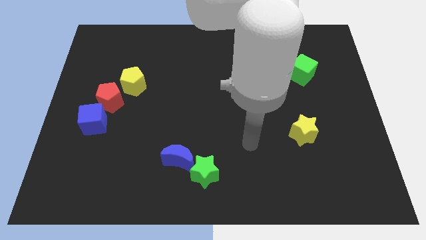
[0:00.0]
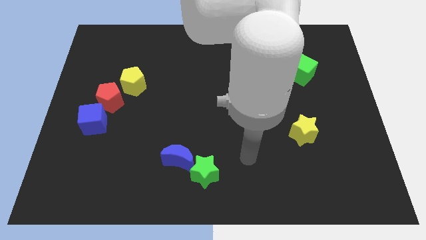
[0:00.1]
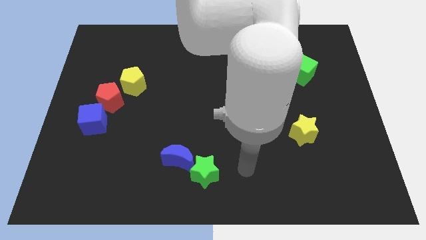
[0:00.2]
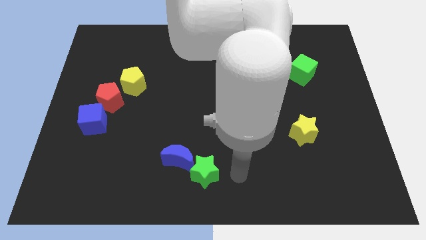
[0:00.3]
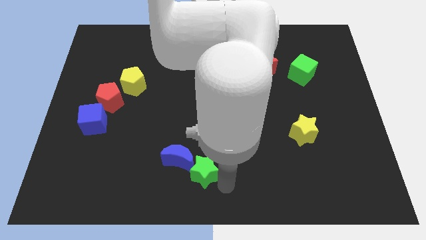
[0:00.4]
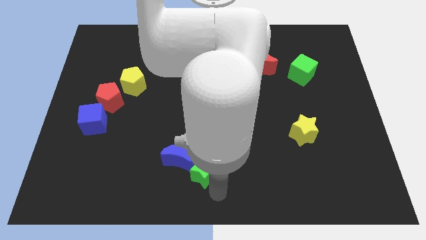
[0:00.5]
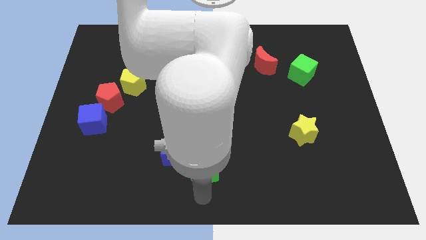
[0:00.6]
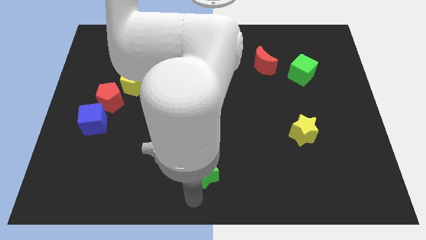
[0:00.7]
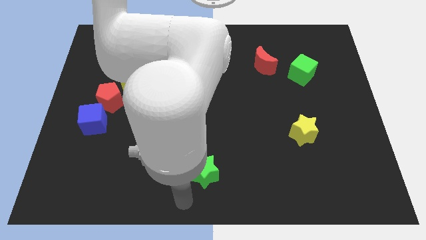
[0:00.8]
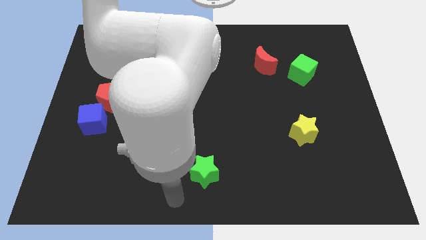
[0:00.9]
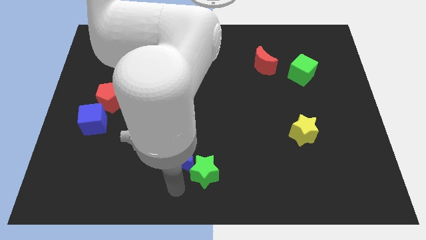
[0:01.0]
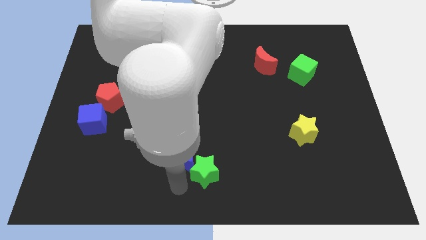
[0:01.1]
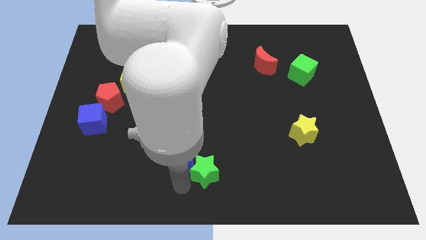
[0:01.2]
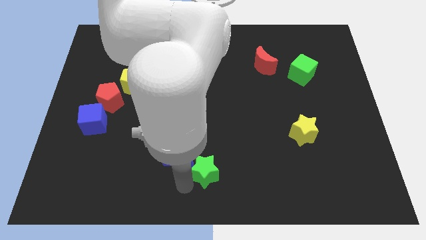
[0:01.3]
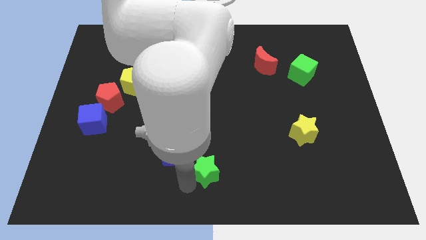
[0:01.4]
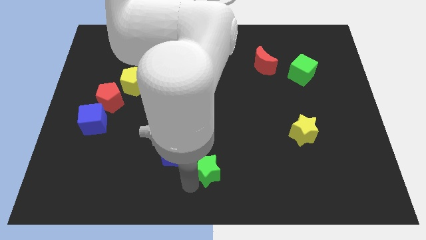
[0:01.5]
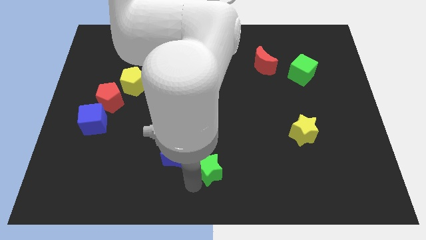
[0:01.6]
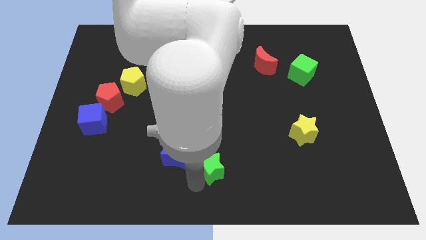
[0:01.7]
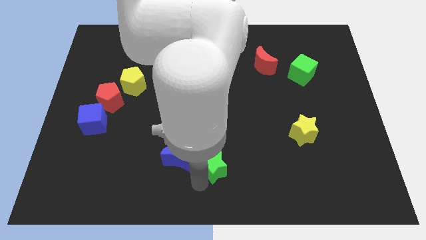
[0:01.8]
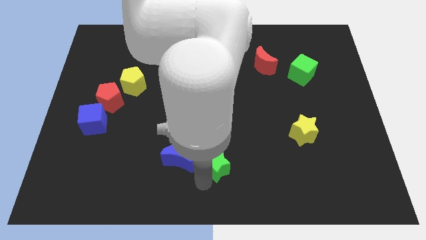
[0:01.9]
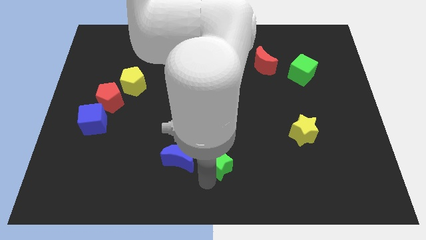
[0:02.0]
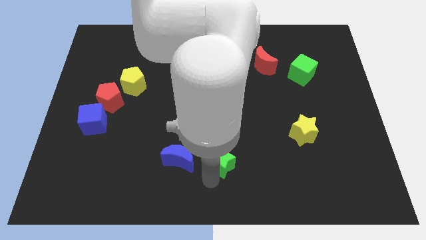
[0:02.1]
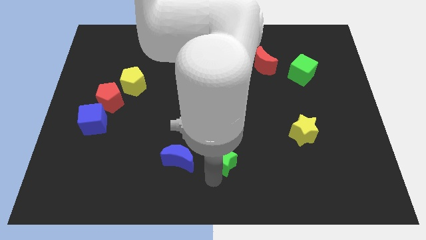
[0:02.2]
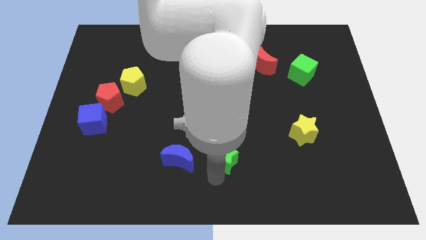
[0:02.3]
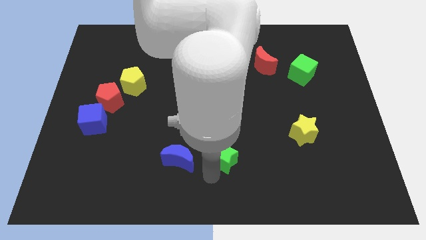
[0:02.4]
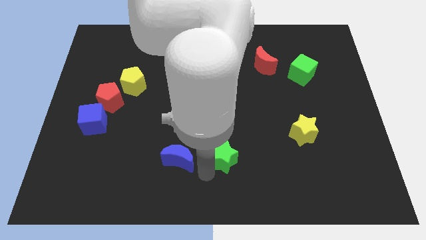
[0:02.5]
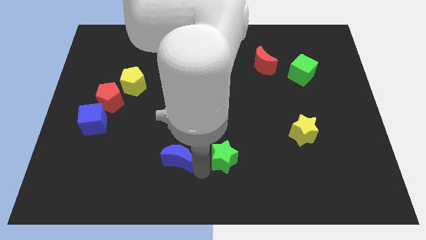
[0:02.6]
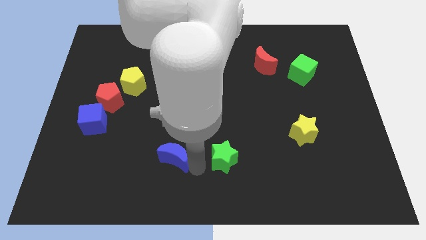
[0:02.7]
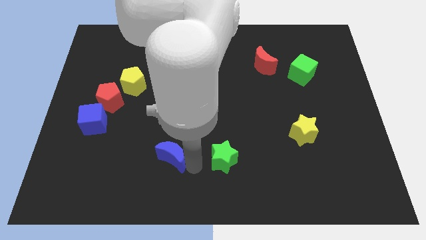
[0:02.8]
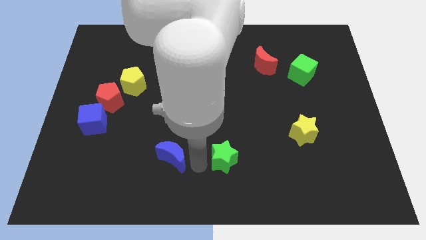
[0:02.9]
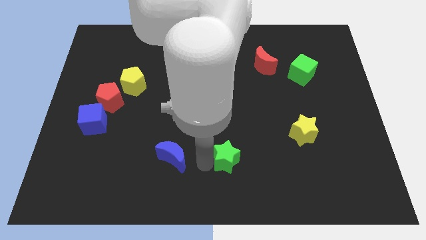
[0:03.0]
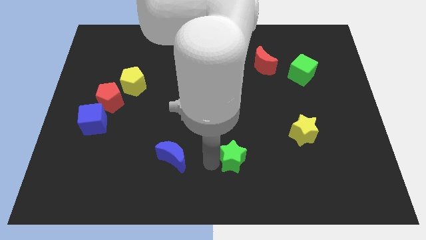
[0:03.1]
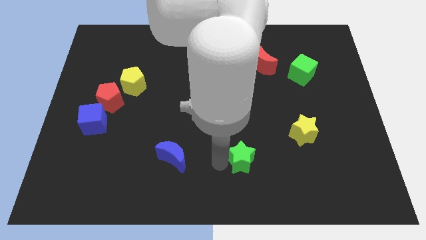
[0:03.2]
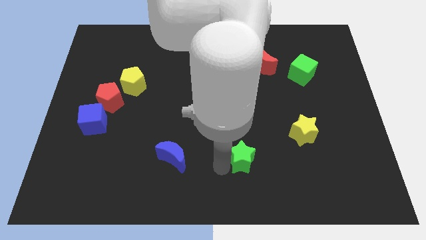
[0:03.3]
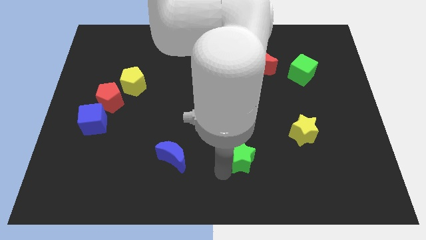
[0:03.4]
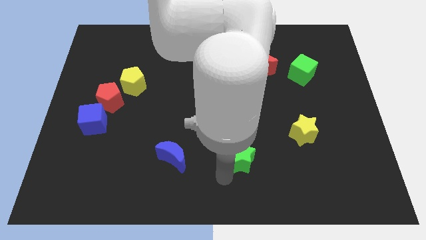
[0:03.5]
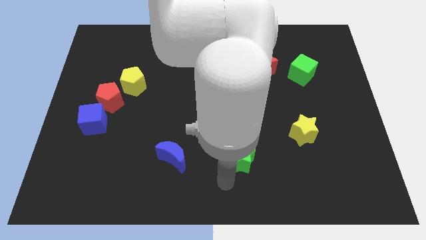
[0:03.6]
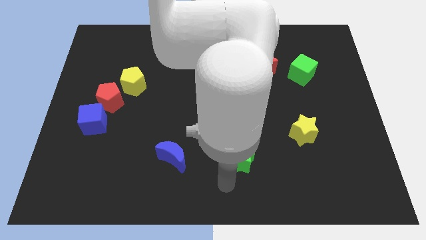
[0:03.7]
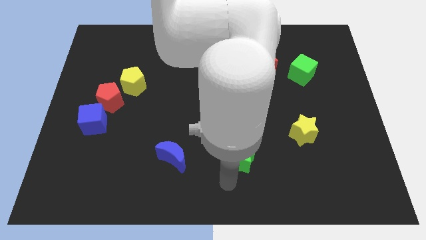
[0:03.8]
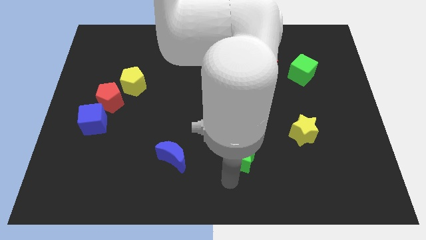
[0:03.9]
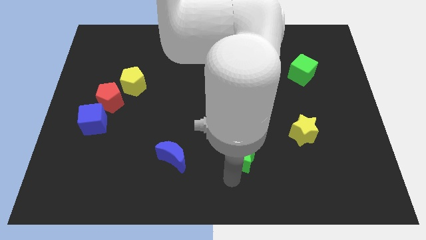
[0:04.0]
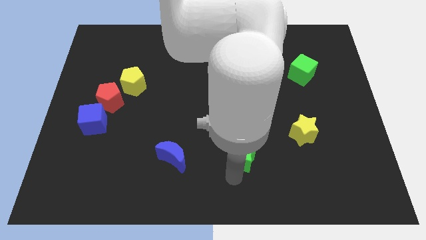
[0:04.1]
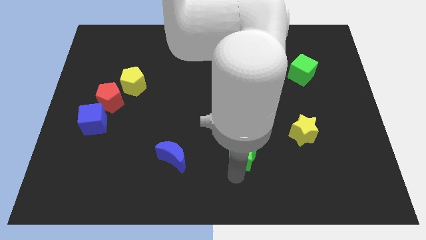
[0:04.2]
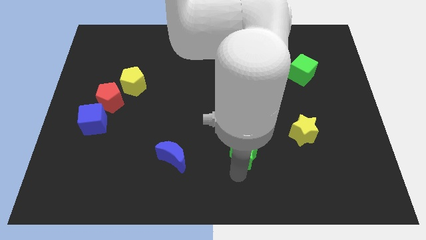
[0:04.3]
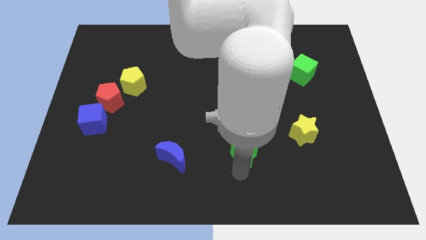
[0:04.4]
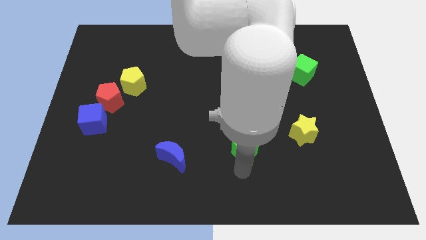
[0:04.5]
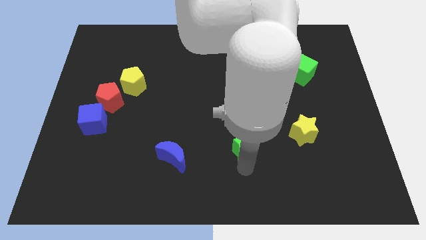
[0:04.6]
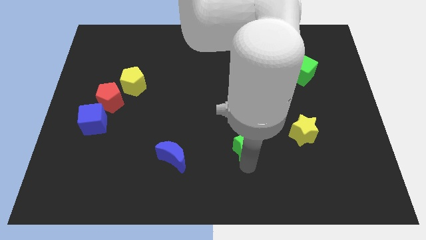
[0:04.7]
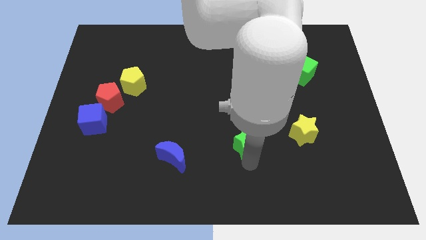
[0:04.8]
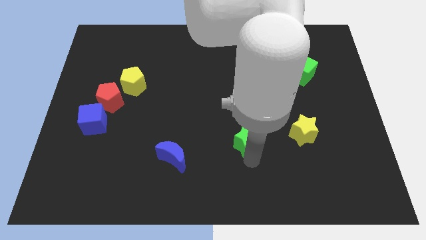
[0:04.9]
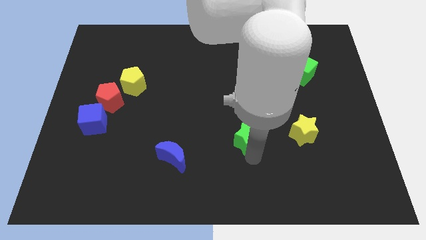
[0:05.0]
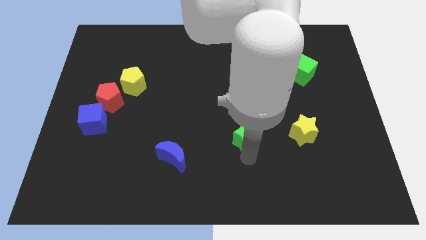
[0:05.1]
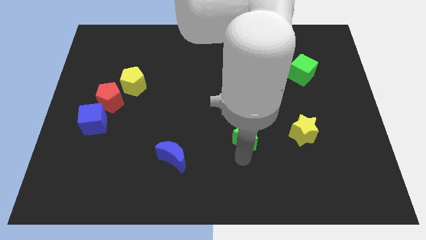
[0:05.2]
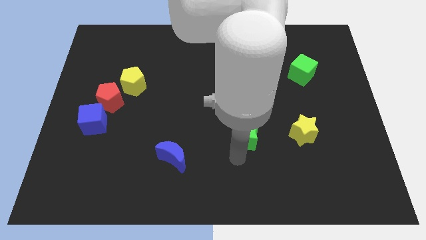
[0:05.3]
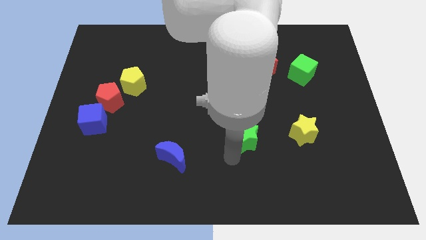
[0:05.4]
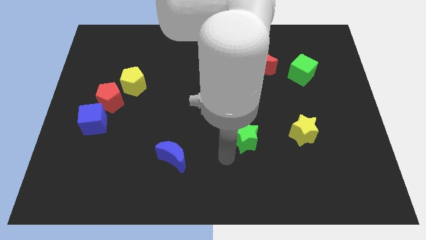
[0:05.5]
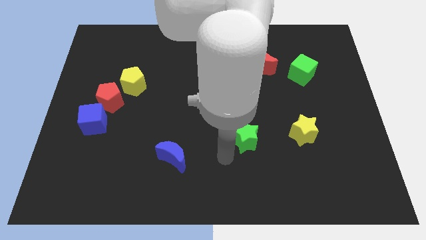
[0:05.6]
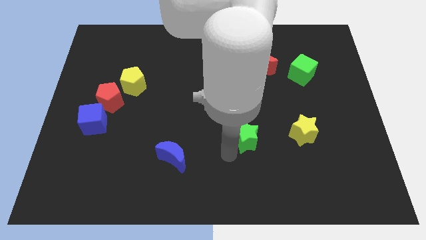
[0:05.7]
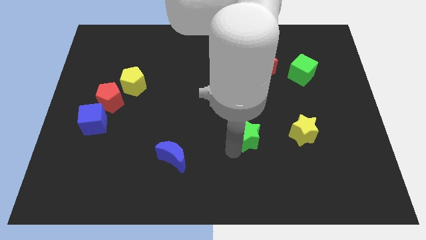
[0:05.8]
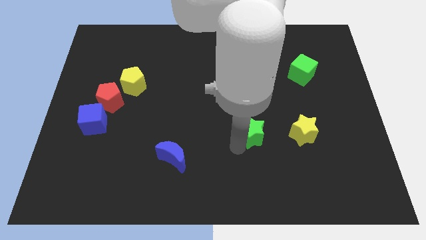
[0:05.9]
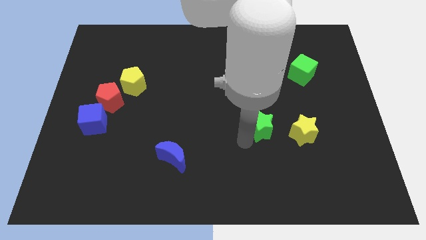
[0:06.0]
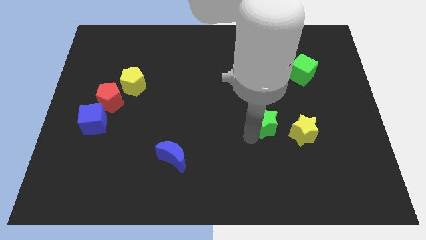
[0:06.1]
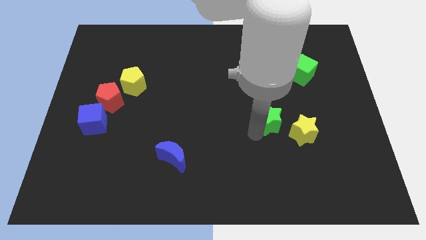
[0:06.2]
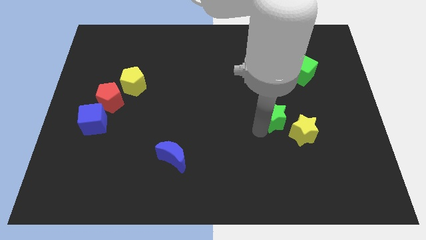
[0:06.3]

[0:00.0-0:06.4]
move the green star diagonally upwards and right

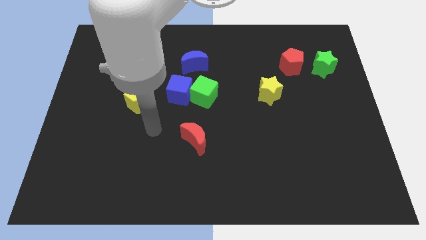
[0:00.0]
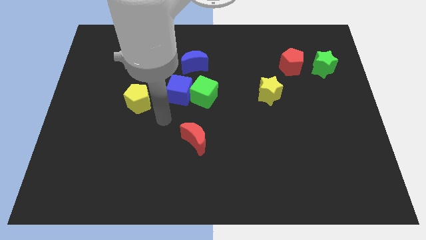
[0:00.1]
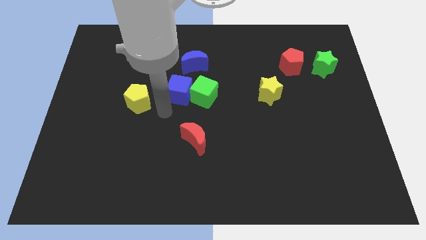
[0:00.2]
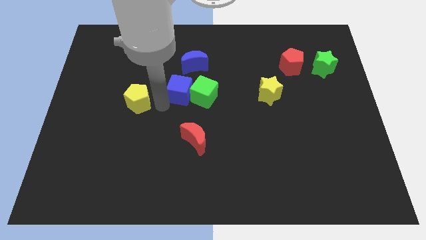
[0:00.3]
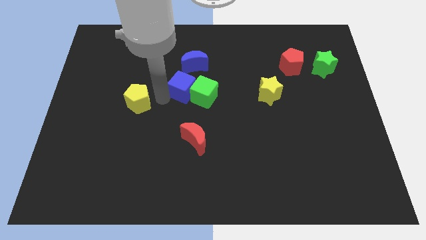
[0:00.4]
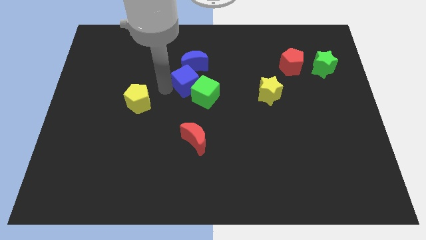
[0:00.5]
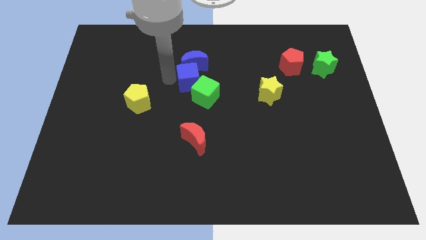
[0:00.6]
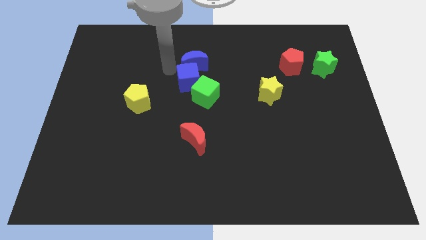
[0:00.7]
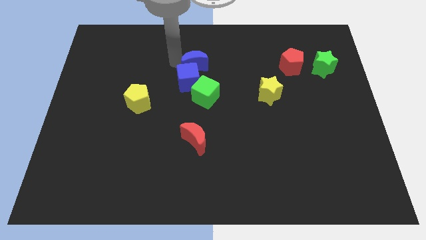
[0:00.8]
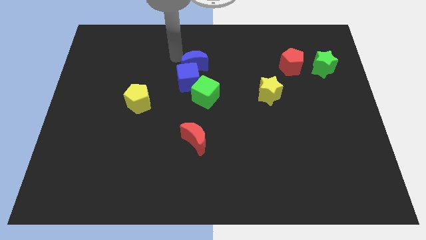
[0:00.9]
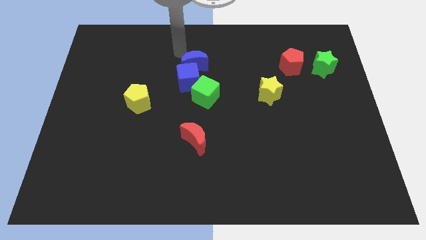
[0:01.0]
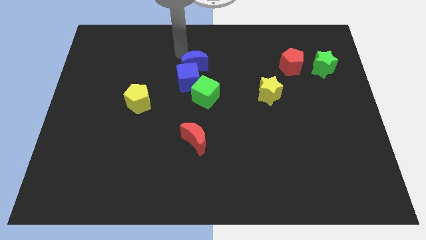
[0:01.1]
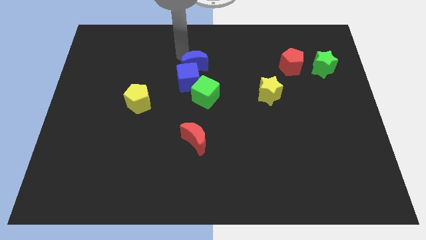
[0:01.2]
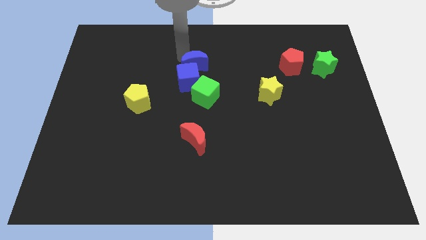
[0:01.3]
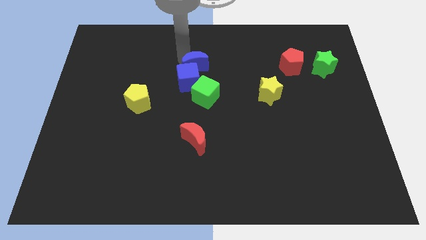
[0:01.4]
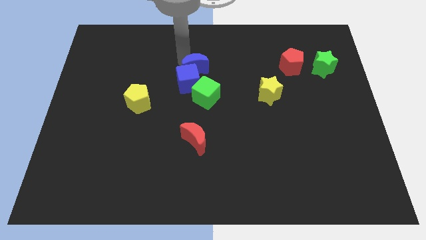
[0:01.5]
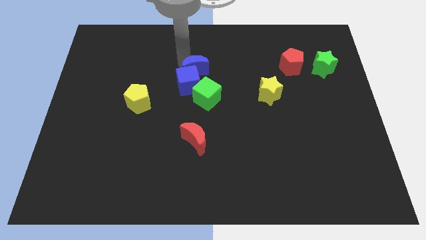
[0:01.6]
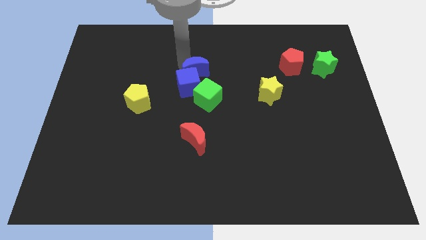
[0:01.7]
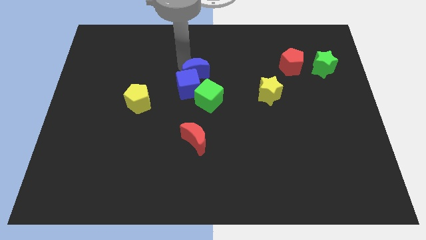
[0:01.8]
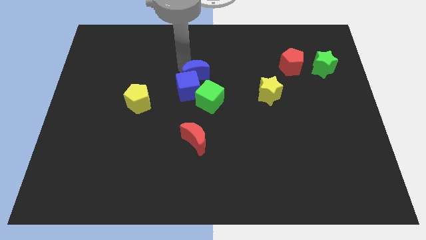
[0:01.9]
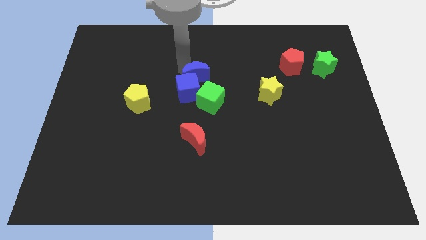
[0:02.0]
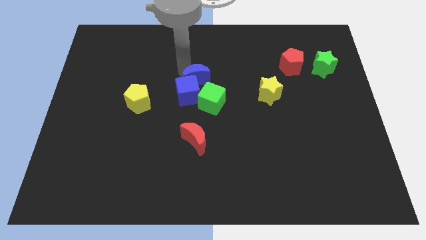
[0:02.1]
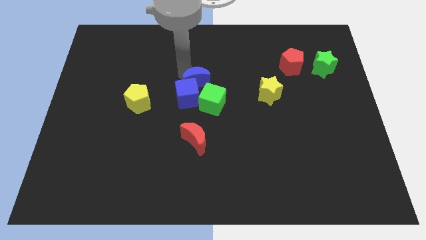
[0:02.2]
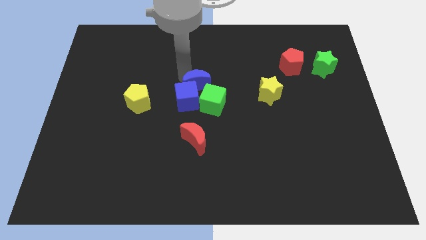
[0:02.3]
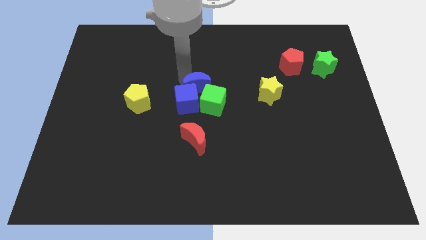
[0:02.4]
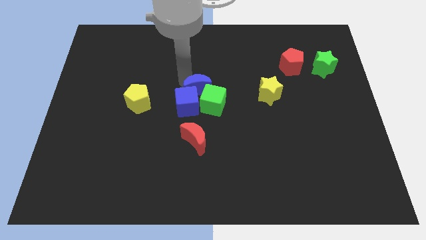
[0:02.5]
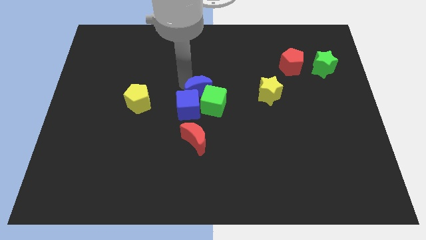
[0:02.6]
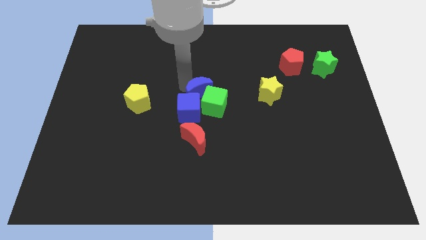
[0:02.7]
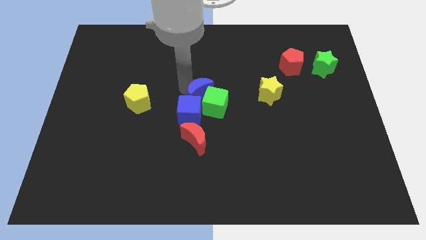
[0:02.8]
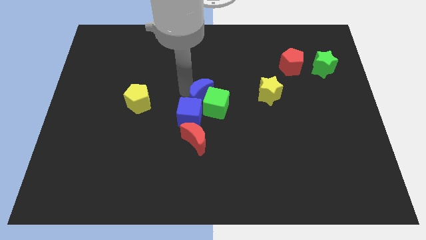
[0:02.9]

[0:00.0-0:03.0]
slightly move the blue moon downwards and right
